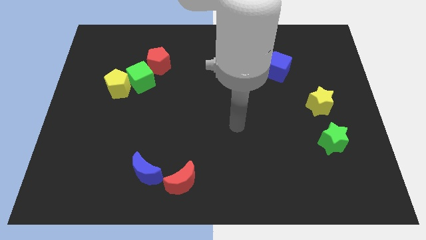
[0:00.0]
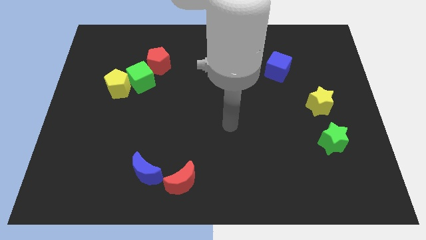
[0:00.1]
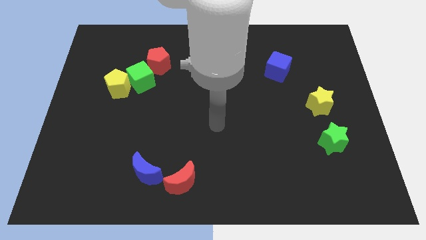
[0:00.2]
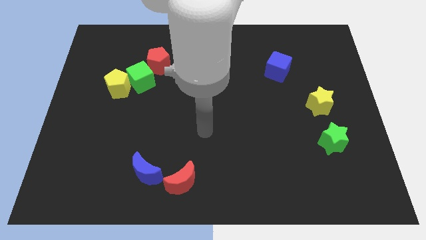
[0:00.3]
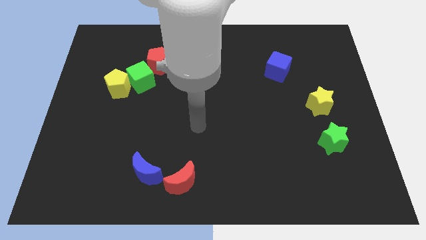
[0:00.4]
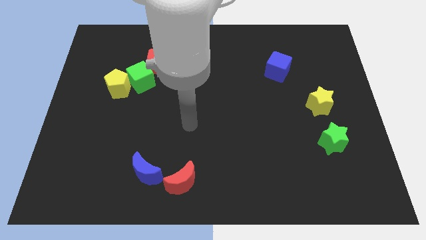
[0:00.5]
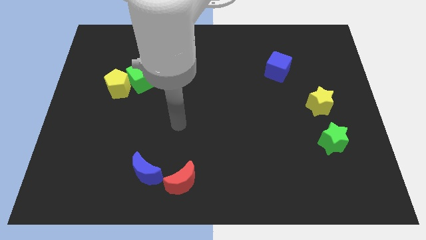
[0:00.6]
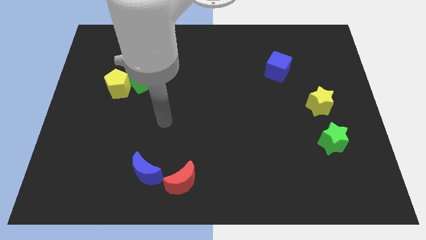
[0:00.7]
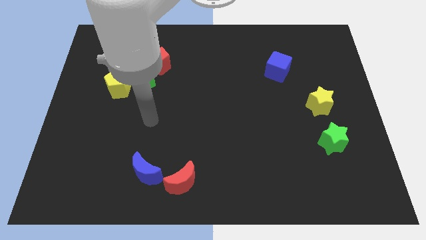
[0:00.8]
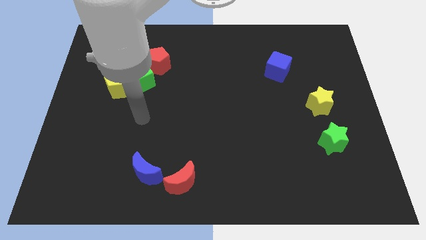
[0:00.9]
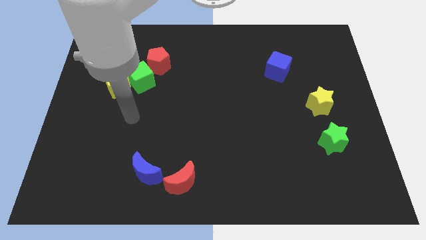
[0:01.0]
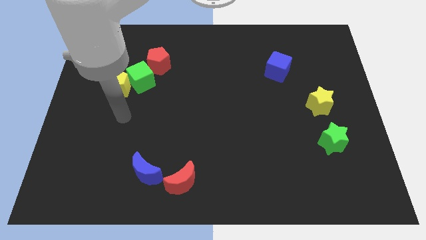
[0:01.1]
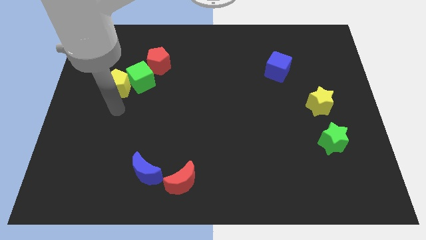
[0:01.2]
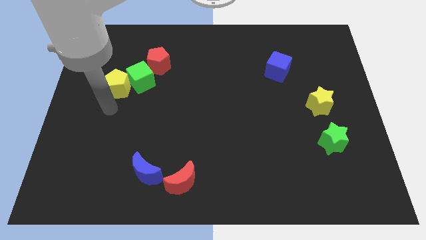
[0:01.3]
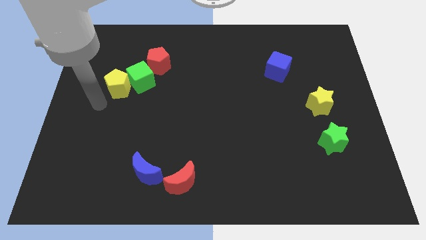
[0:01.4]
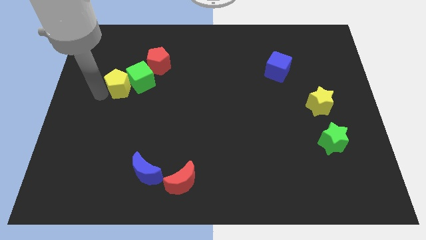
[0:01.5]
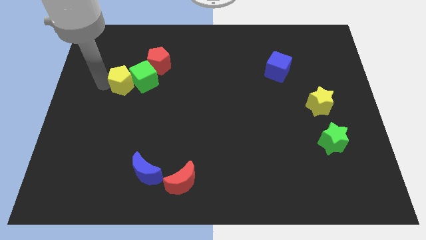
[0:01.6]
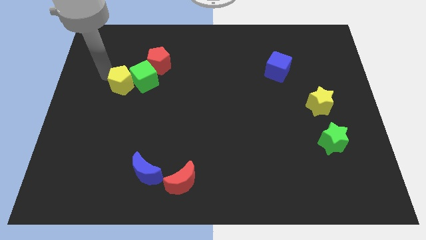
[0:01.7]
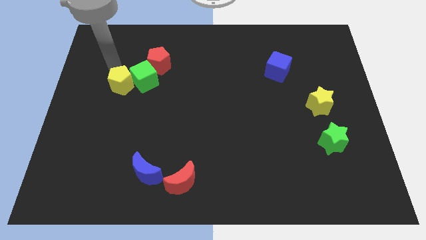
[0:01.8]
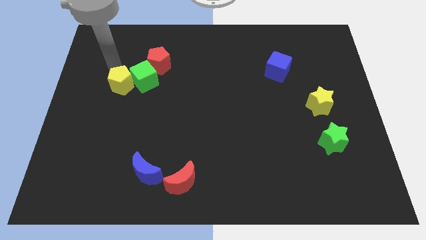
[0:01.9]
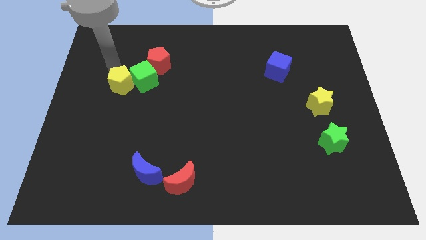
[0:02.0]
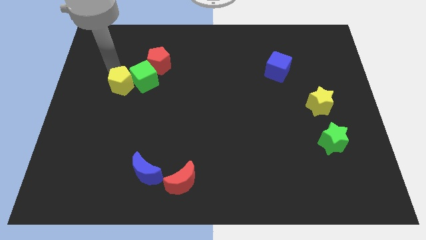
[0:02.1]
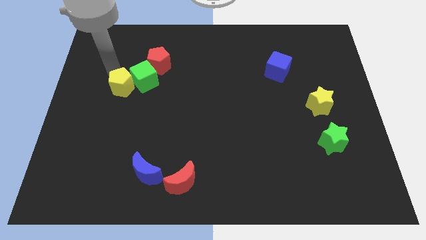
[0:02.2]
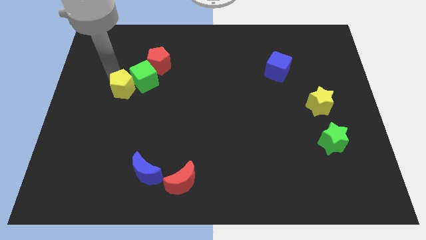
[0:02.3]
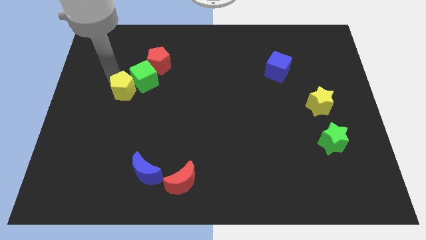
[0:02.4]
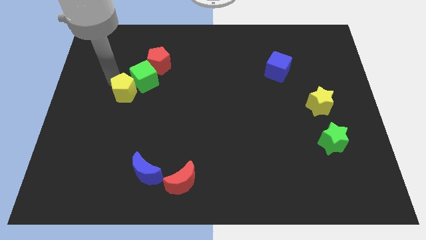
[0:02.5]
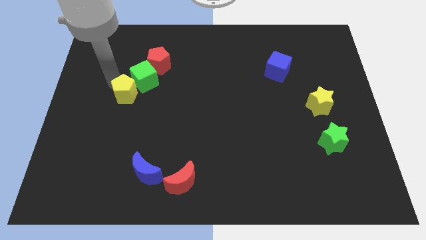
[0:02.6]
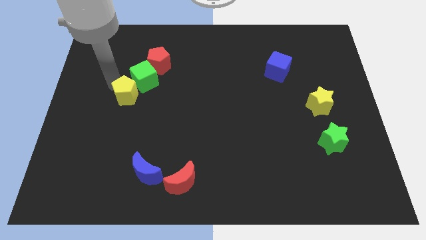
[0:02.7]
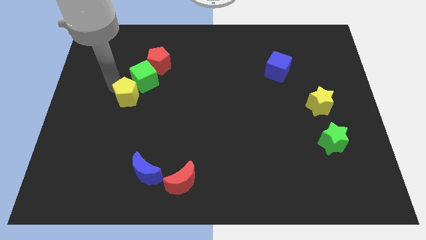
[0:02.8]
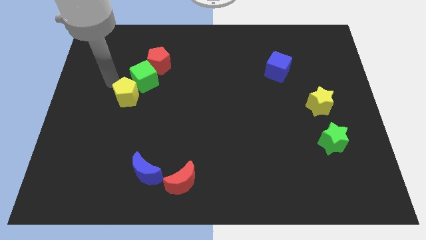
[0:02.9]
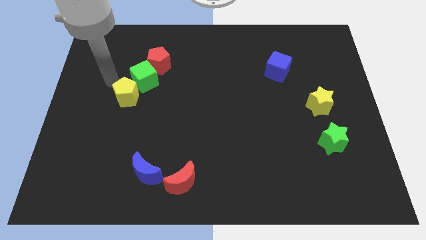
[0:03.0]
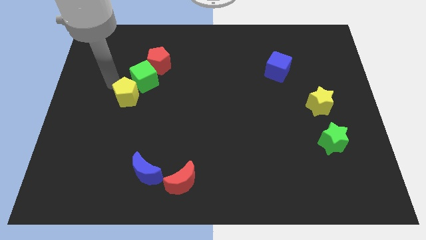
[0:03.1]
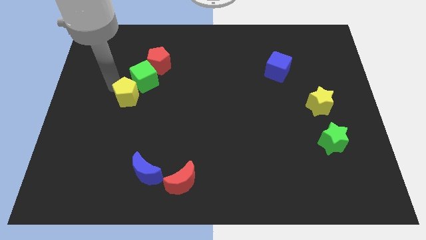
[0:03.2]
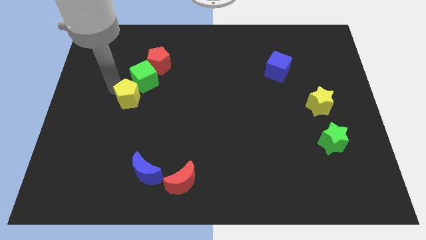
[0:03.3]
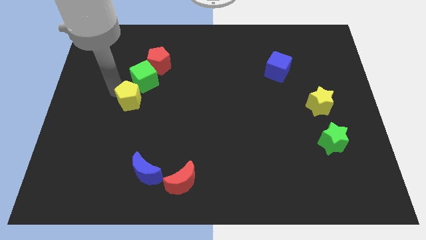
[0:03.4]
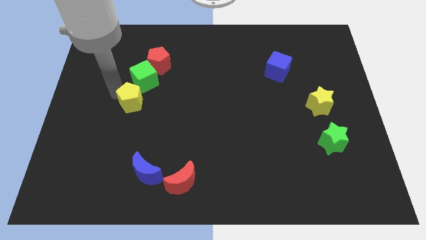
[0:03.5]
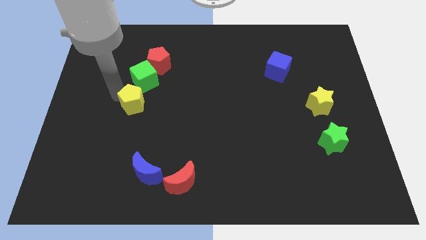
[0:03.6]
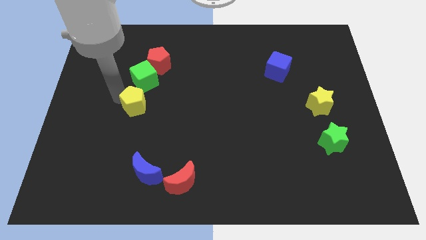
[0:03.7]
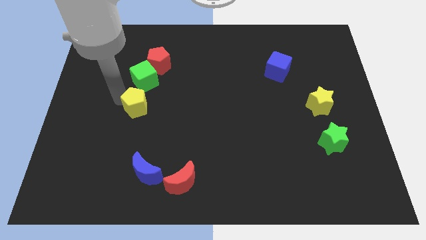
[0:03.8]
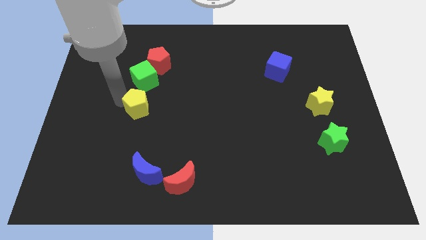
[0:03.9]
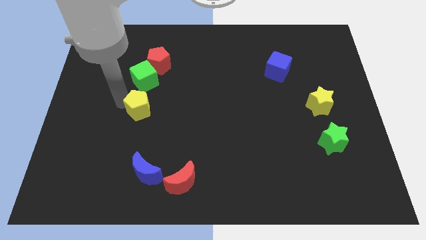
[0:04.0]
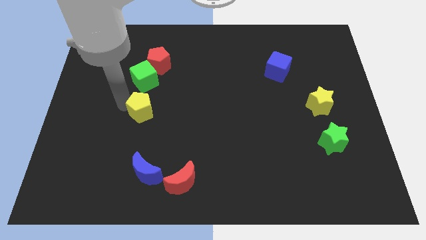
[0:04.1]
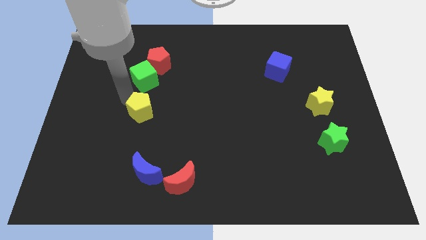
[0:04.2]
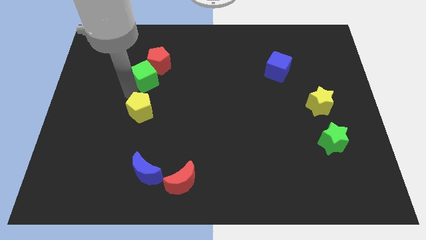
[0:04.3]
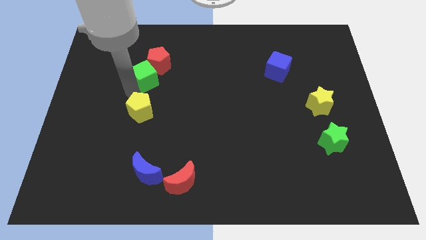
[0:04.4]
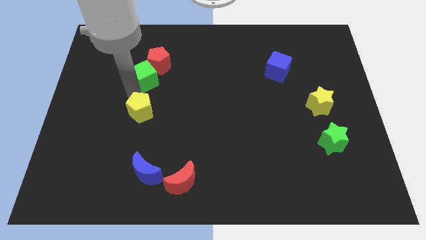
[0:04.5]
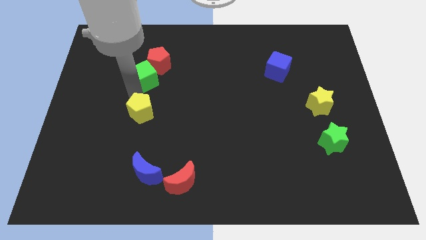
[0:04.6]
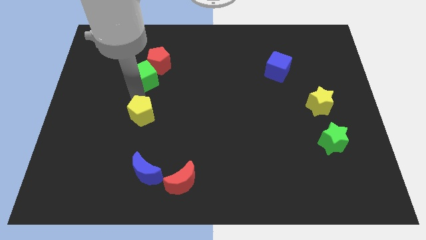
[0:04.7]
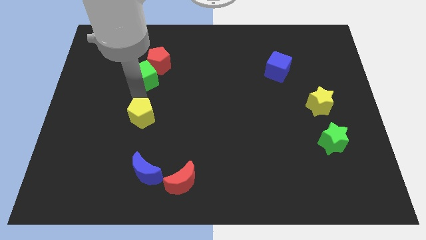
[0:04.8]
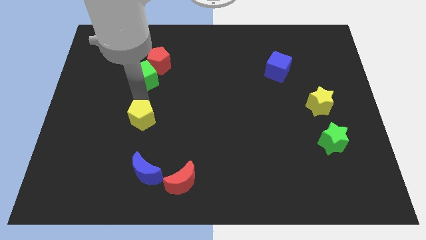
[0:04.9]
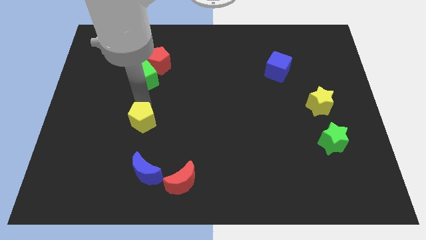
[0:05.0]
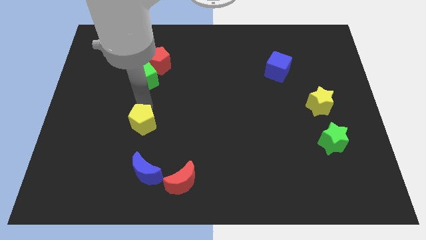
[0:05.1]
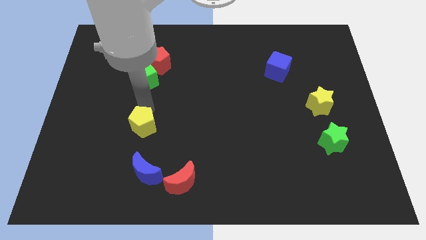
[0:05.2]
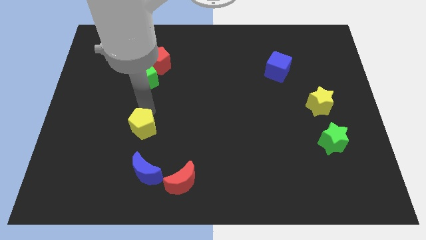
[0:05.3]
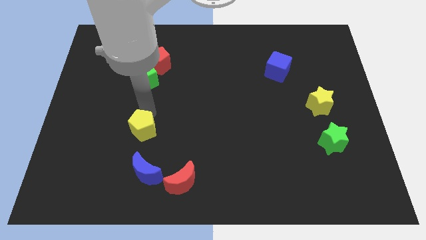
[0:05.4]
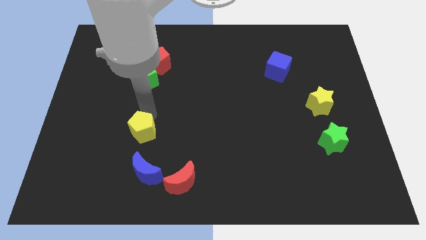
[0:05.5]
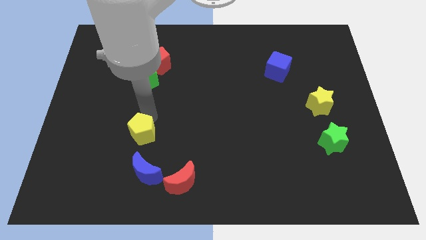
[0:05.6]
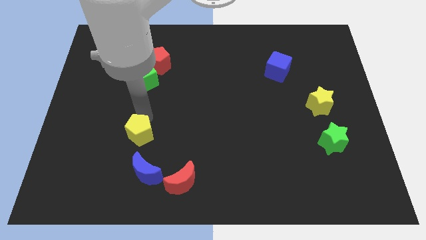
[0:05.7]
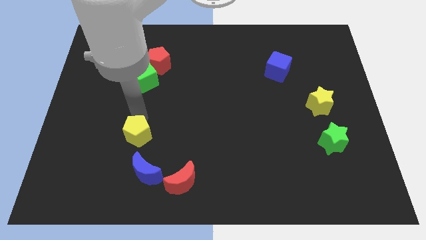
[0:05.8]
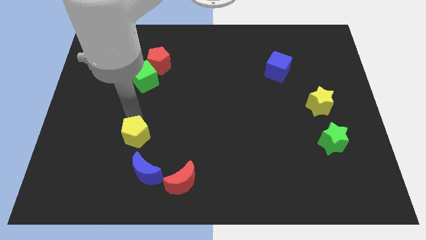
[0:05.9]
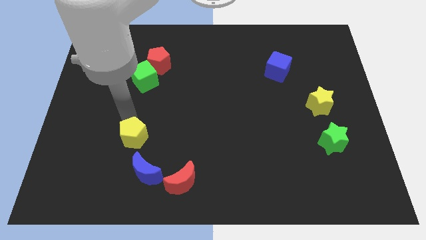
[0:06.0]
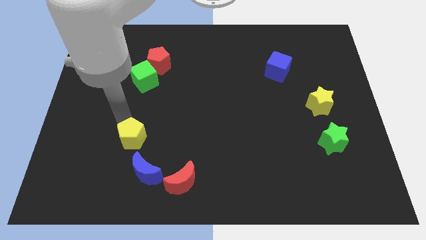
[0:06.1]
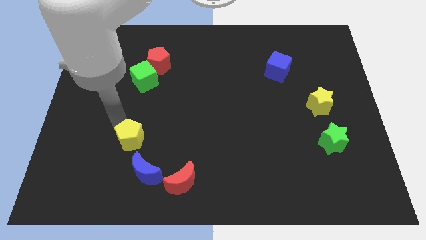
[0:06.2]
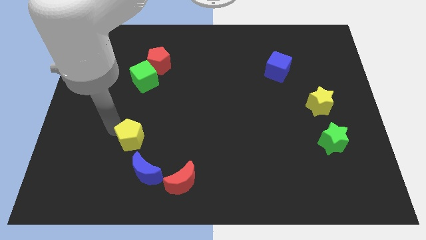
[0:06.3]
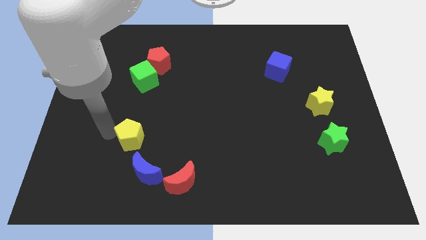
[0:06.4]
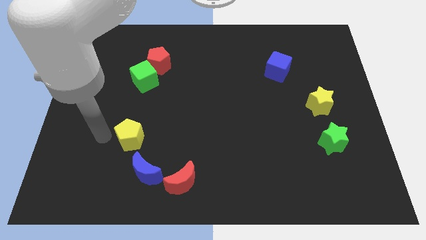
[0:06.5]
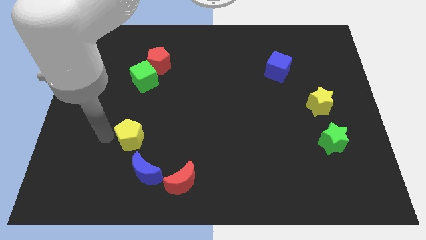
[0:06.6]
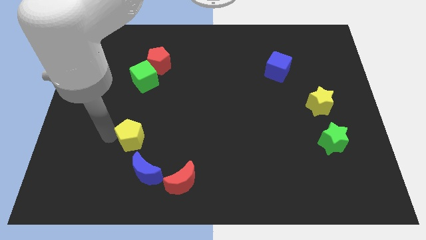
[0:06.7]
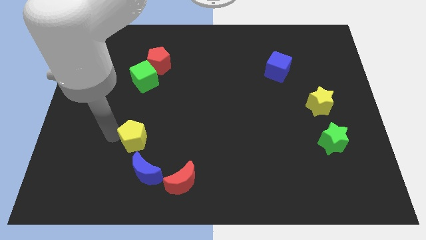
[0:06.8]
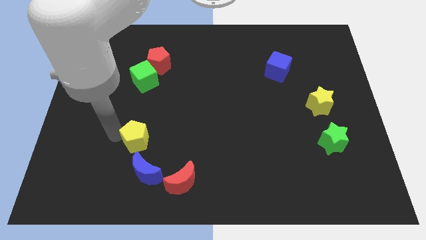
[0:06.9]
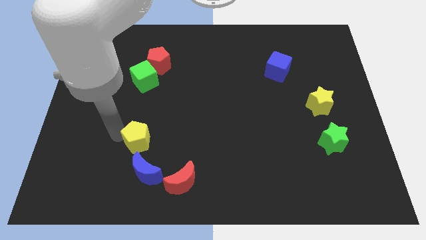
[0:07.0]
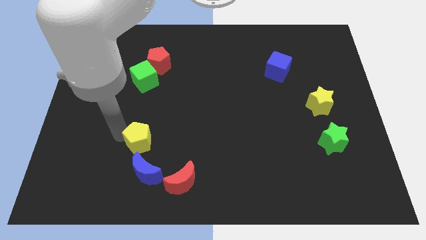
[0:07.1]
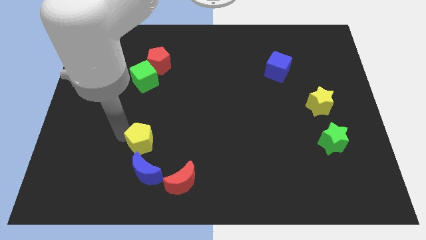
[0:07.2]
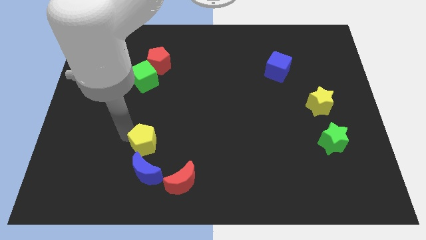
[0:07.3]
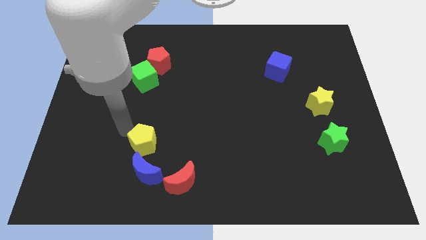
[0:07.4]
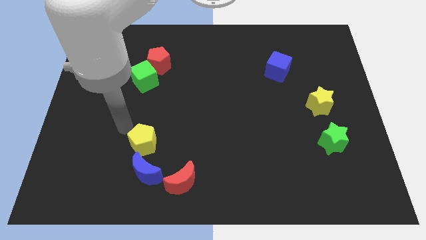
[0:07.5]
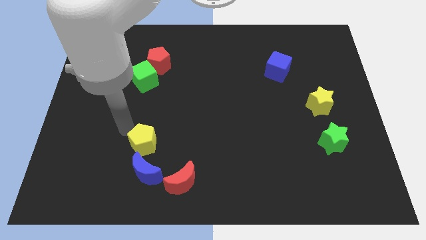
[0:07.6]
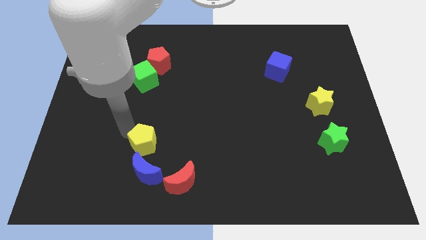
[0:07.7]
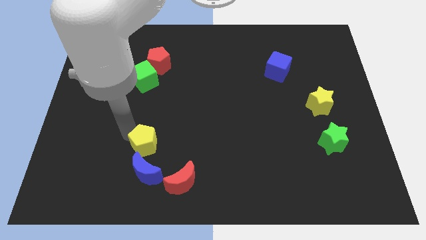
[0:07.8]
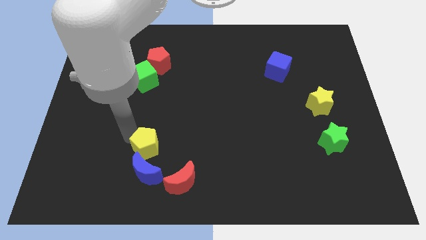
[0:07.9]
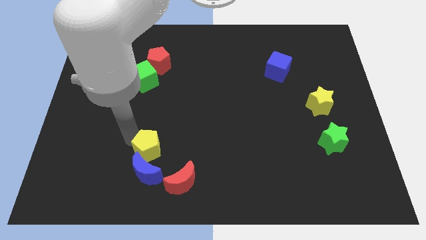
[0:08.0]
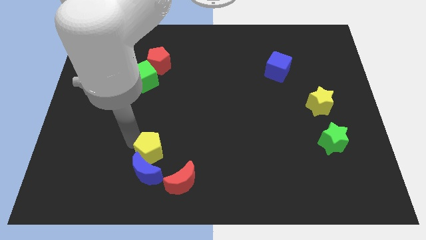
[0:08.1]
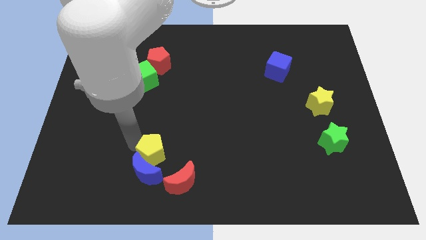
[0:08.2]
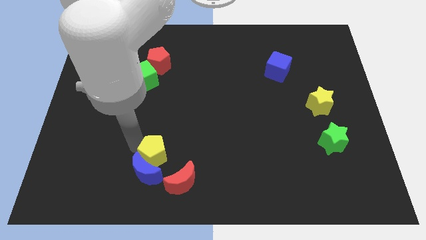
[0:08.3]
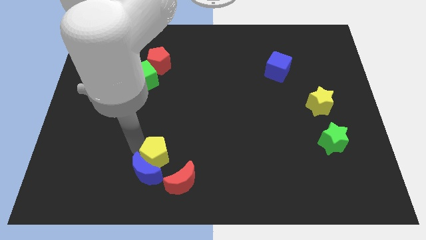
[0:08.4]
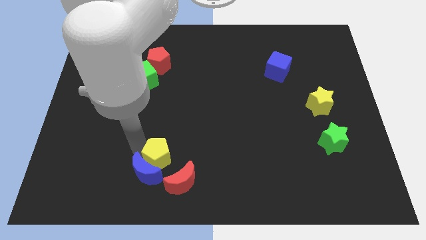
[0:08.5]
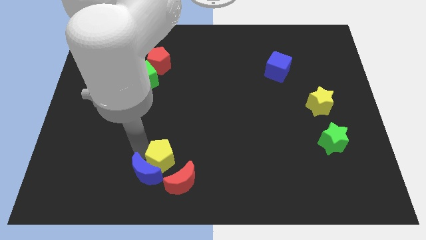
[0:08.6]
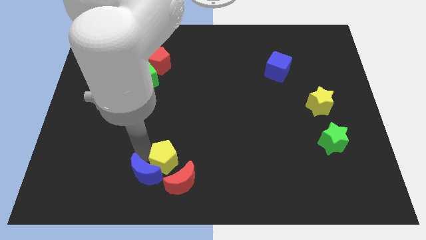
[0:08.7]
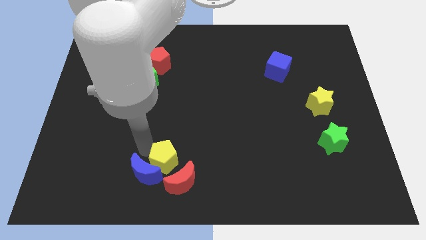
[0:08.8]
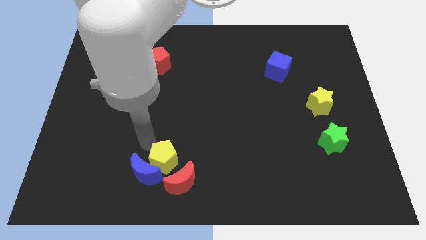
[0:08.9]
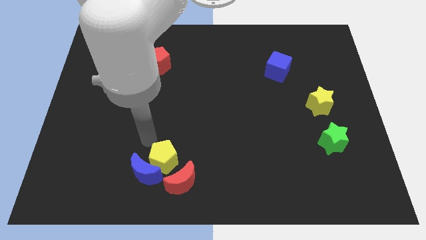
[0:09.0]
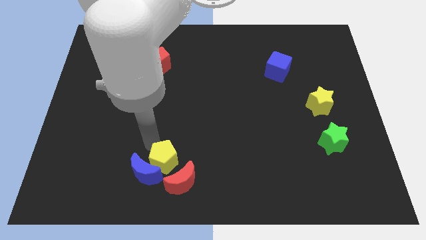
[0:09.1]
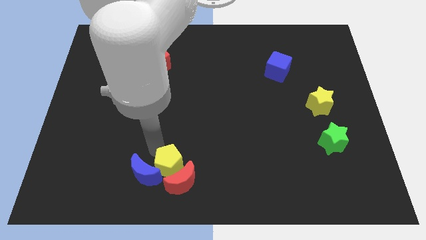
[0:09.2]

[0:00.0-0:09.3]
push the yellow pentagon towards the red moon
